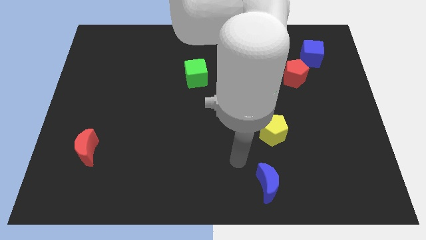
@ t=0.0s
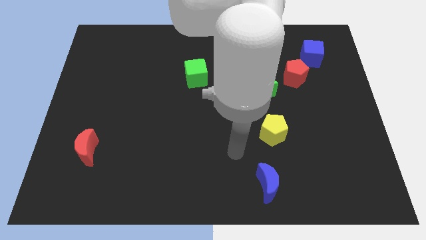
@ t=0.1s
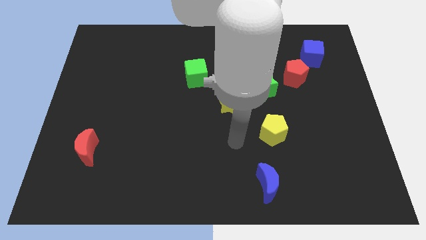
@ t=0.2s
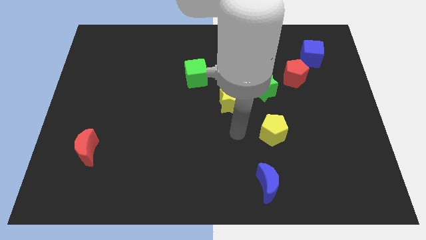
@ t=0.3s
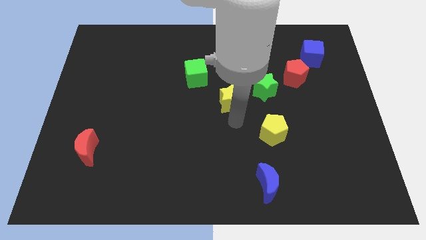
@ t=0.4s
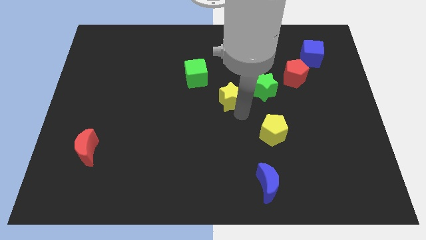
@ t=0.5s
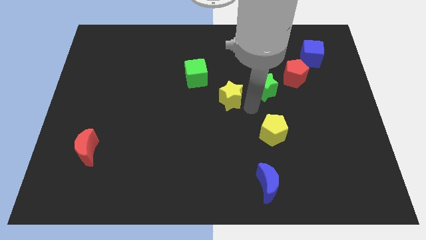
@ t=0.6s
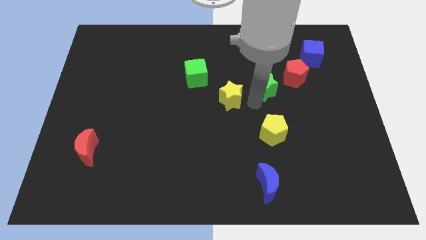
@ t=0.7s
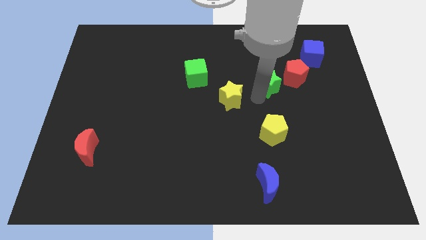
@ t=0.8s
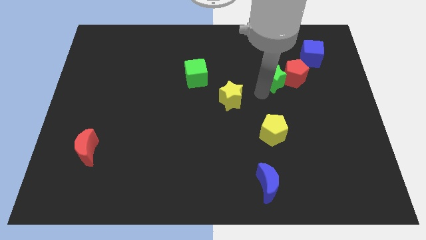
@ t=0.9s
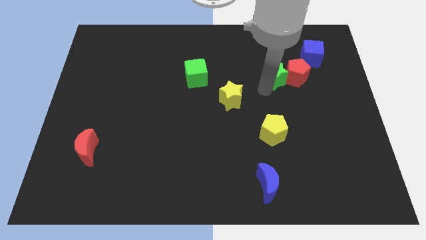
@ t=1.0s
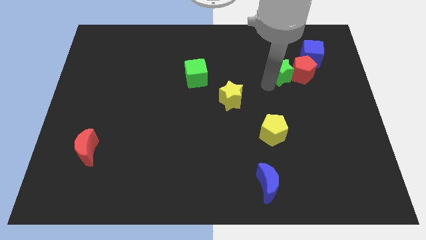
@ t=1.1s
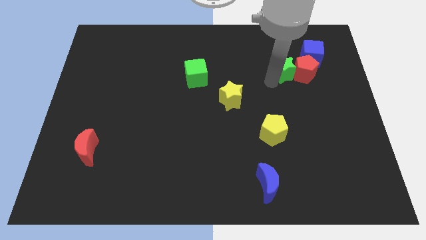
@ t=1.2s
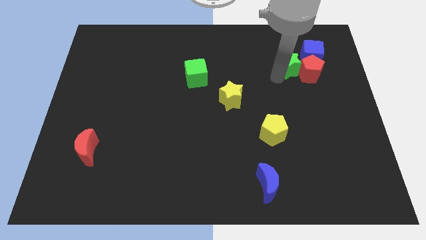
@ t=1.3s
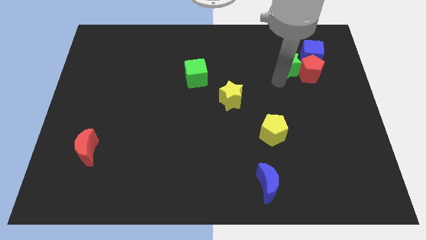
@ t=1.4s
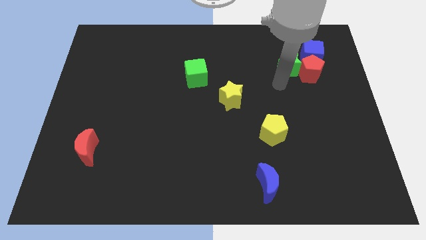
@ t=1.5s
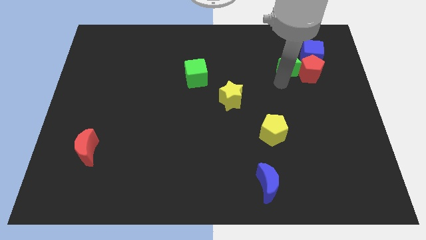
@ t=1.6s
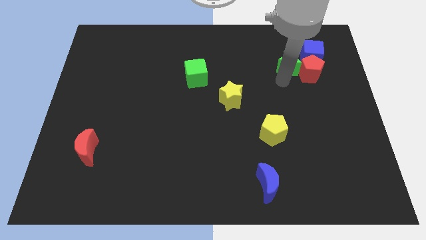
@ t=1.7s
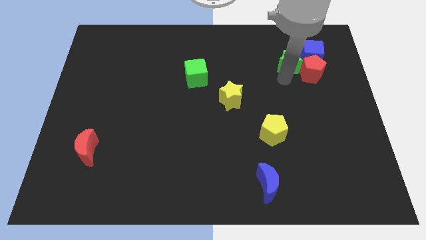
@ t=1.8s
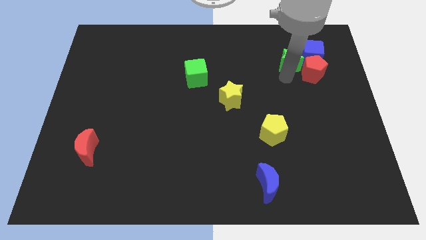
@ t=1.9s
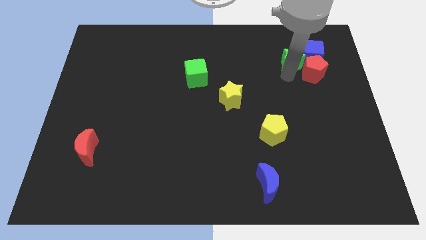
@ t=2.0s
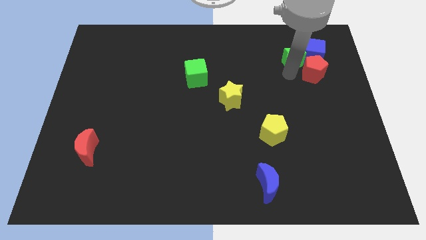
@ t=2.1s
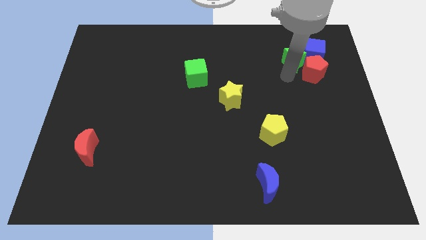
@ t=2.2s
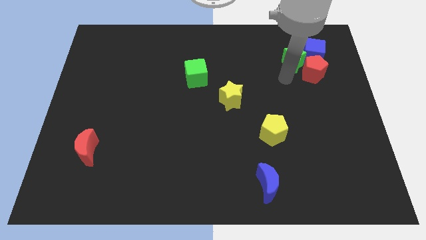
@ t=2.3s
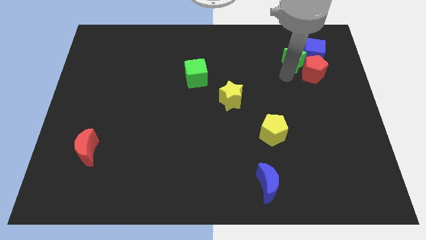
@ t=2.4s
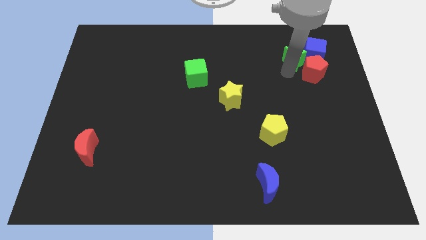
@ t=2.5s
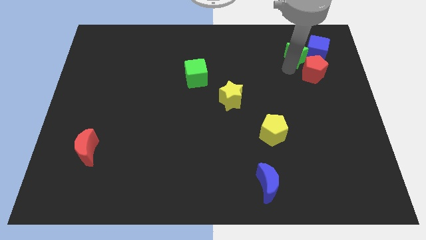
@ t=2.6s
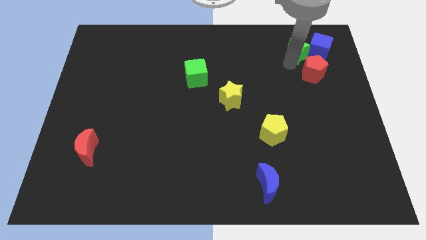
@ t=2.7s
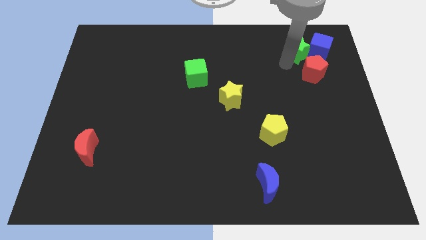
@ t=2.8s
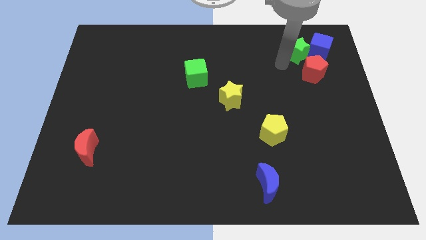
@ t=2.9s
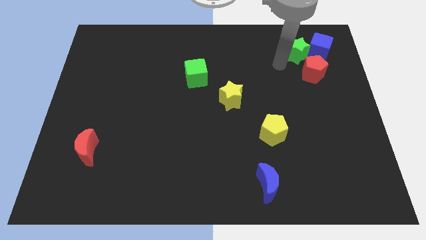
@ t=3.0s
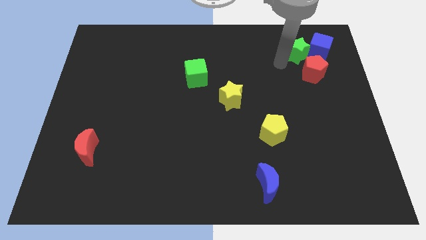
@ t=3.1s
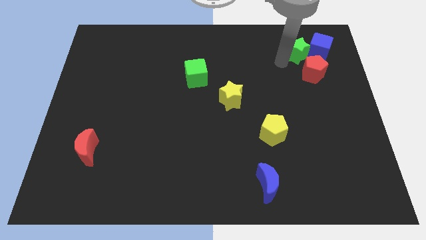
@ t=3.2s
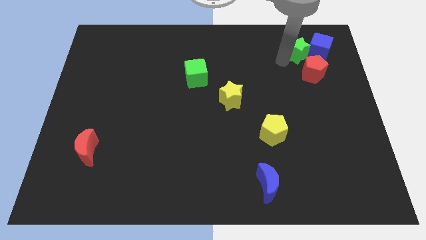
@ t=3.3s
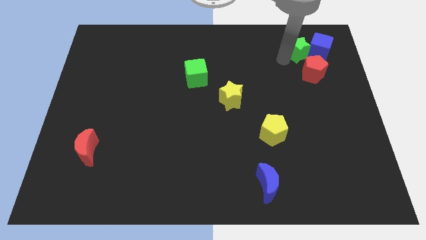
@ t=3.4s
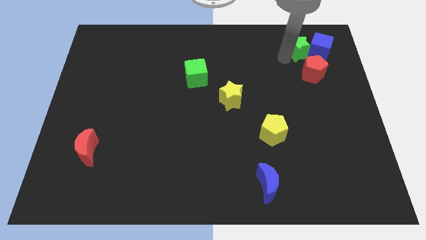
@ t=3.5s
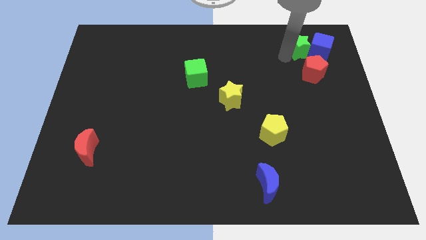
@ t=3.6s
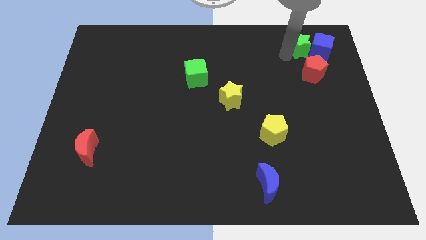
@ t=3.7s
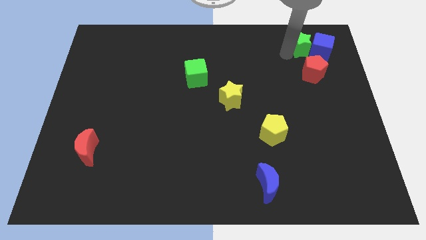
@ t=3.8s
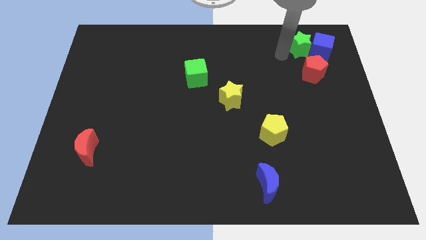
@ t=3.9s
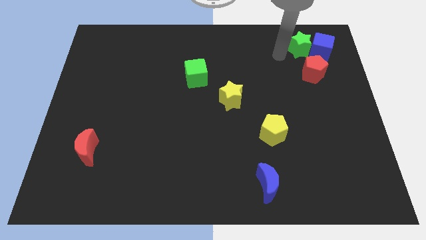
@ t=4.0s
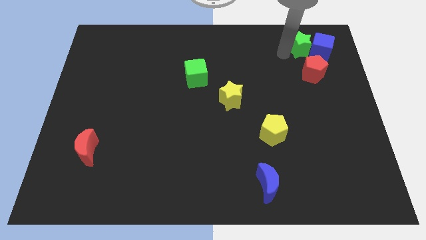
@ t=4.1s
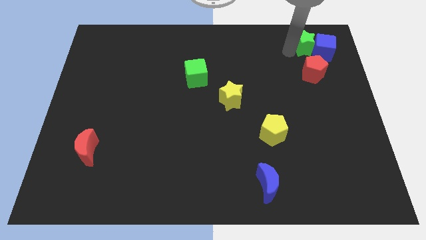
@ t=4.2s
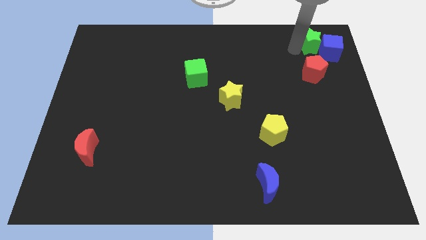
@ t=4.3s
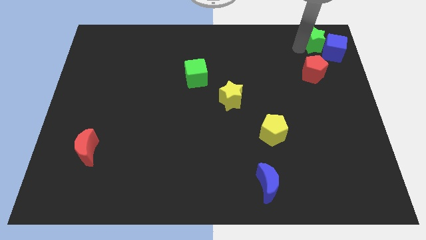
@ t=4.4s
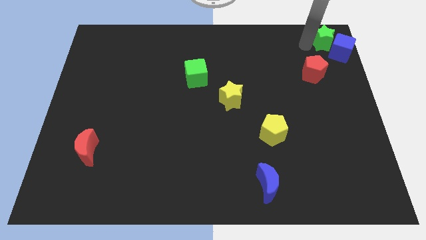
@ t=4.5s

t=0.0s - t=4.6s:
slide the green star to the top right of the board

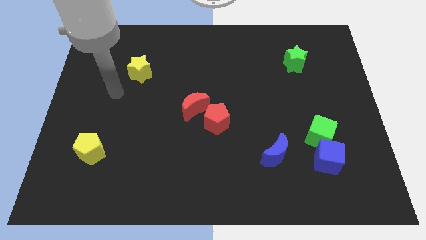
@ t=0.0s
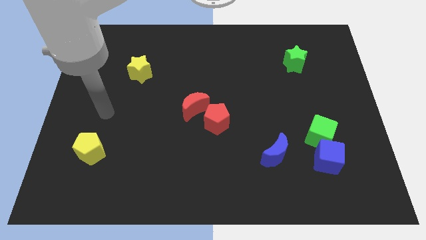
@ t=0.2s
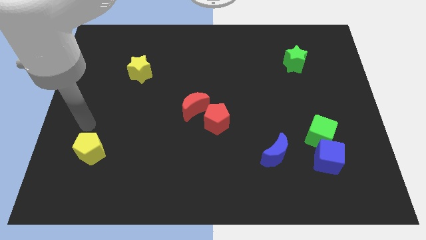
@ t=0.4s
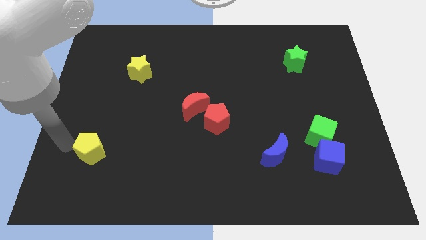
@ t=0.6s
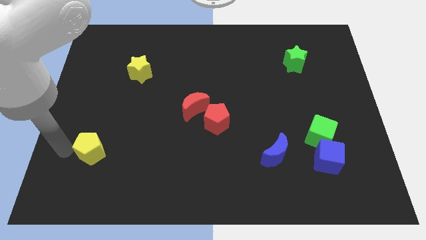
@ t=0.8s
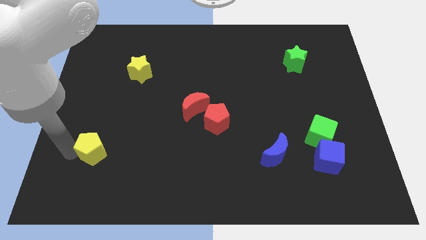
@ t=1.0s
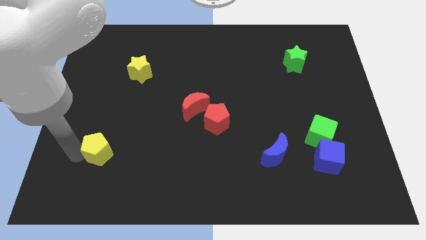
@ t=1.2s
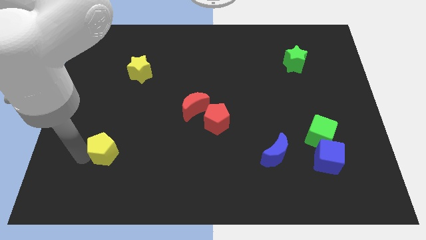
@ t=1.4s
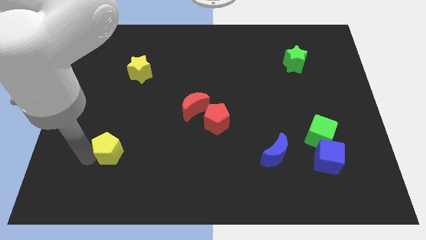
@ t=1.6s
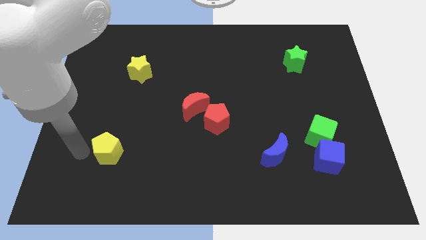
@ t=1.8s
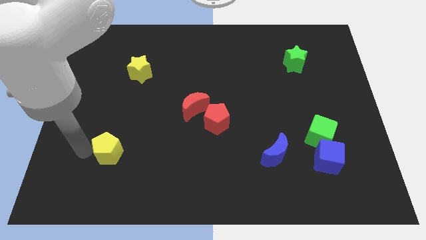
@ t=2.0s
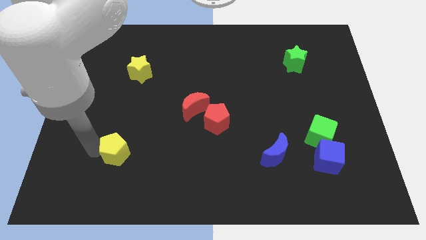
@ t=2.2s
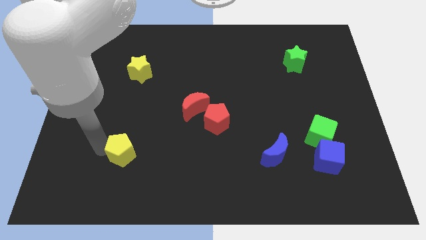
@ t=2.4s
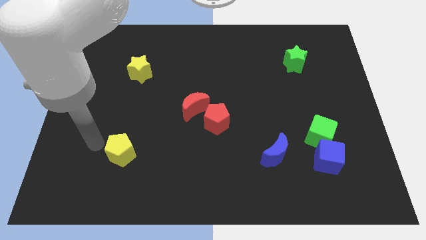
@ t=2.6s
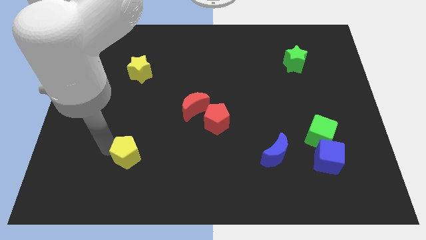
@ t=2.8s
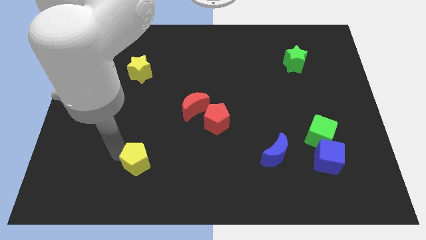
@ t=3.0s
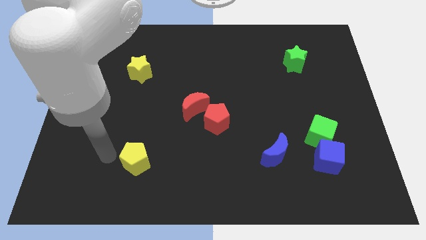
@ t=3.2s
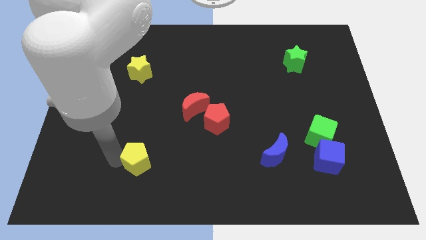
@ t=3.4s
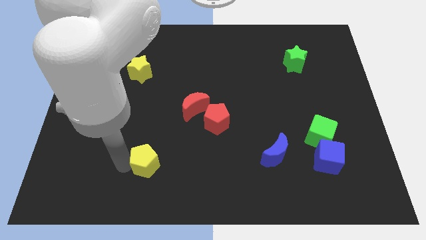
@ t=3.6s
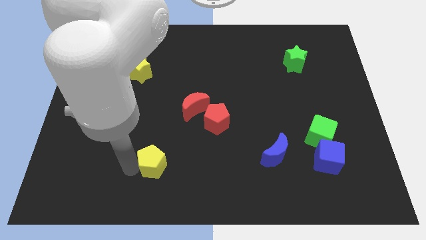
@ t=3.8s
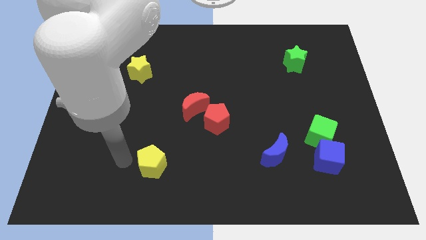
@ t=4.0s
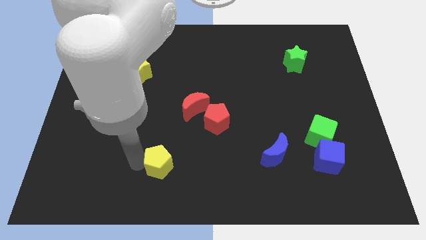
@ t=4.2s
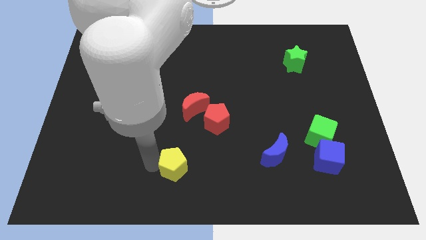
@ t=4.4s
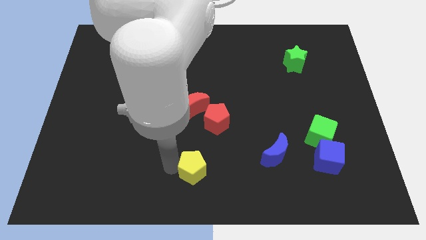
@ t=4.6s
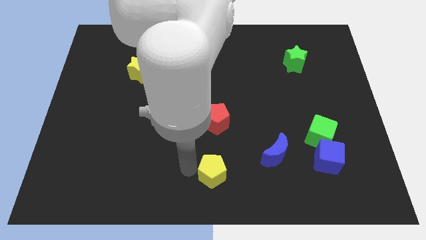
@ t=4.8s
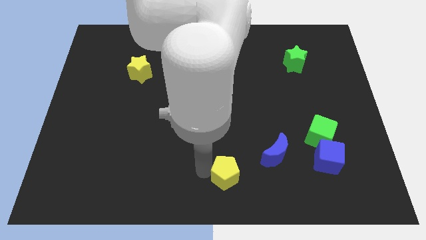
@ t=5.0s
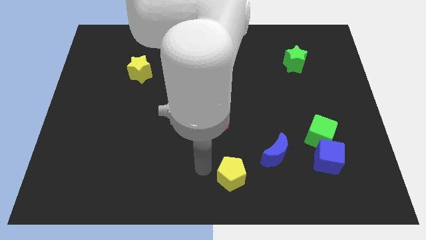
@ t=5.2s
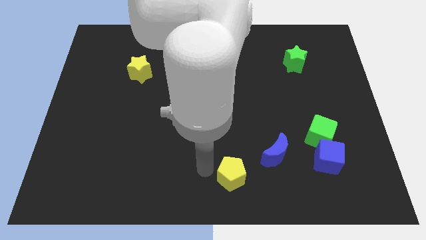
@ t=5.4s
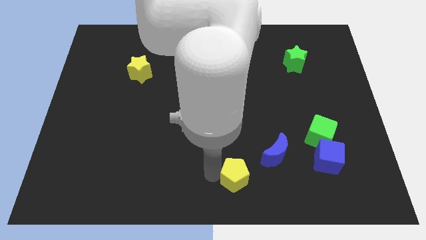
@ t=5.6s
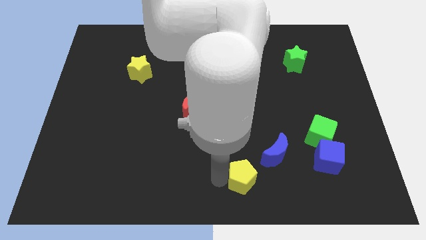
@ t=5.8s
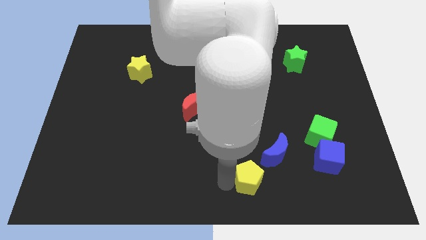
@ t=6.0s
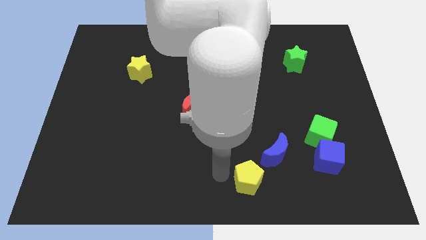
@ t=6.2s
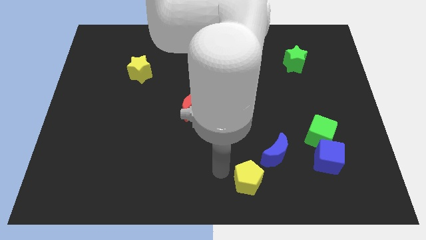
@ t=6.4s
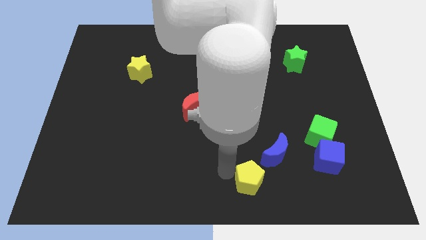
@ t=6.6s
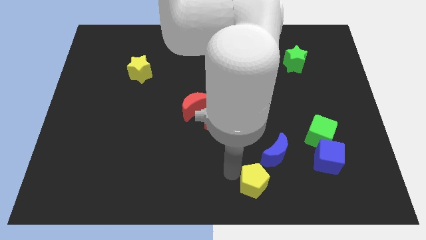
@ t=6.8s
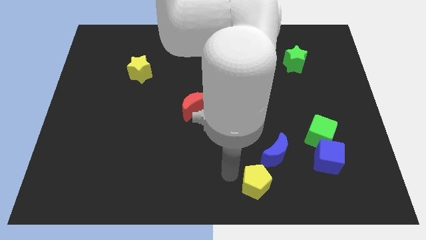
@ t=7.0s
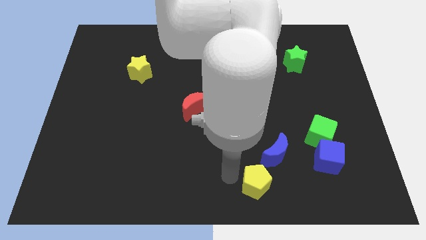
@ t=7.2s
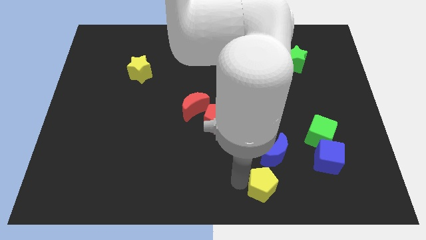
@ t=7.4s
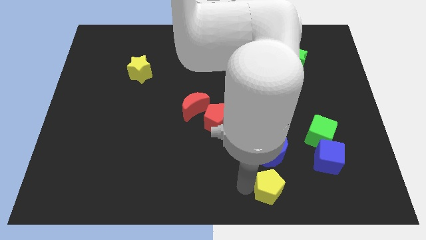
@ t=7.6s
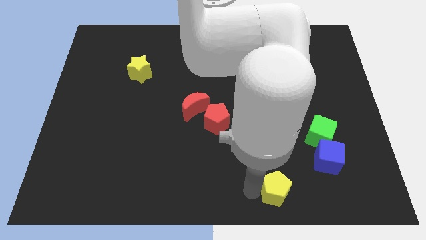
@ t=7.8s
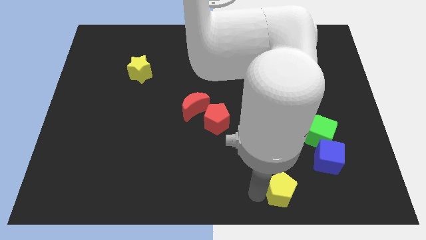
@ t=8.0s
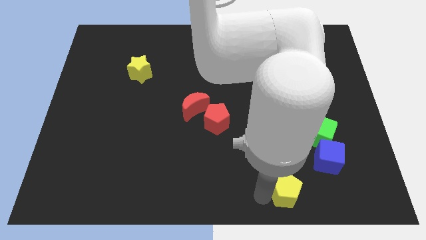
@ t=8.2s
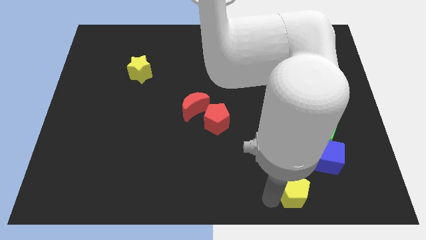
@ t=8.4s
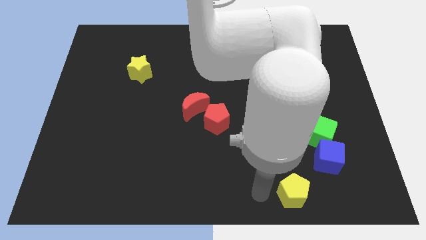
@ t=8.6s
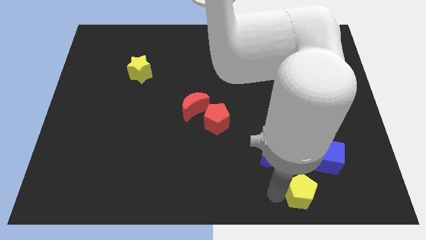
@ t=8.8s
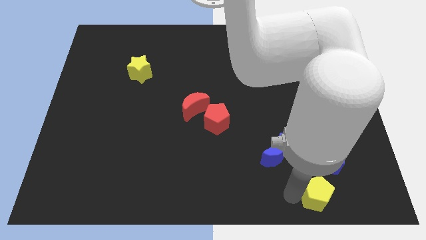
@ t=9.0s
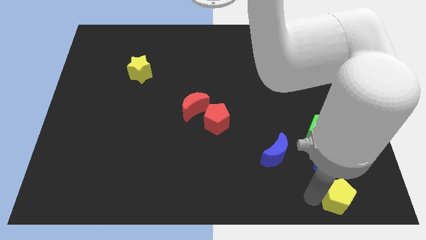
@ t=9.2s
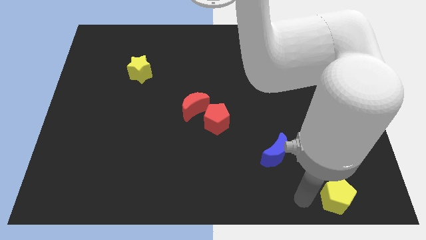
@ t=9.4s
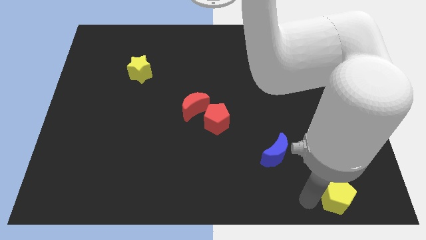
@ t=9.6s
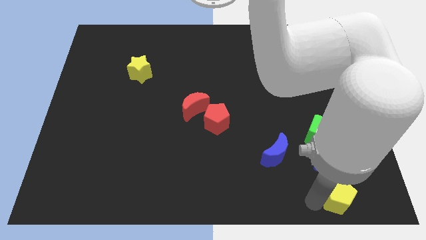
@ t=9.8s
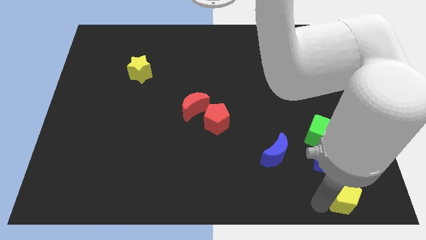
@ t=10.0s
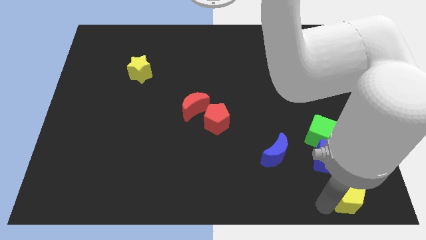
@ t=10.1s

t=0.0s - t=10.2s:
push the yellow pentagon to the lower right corner
